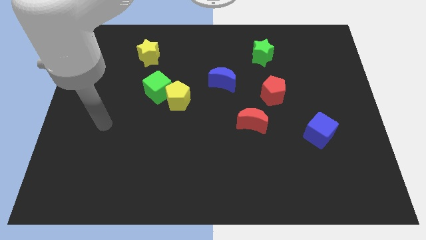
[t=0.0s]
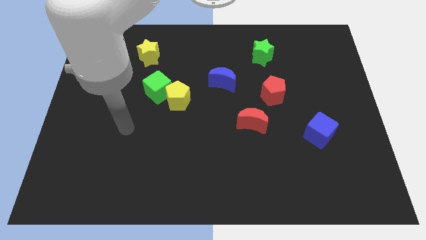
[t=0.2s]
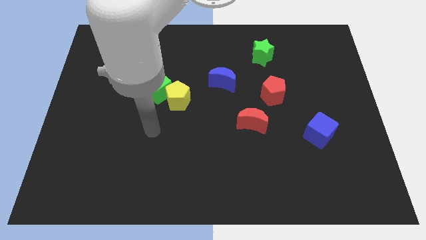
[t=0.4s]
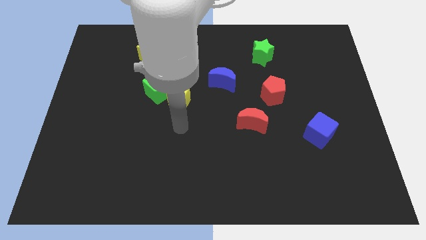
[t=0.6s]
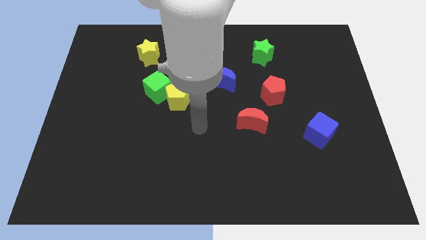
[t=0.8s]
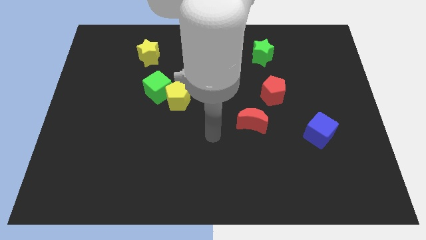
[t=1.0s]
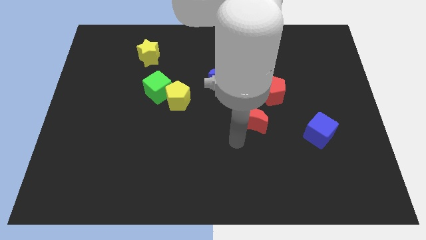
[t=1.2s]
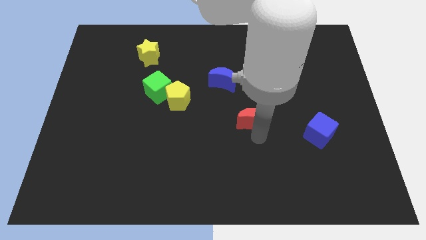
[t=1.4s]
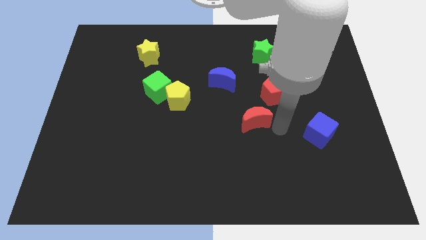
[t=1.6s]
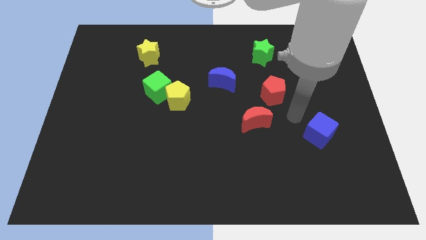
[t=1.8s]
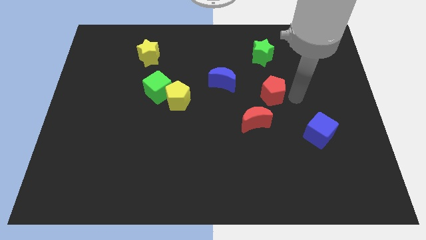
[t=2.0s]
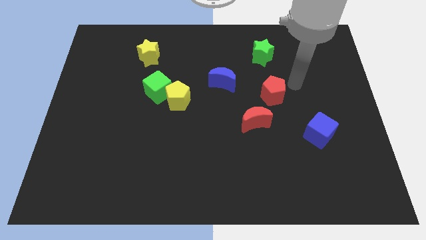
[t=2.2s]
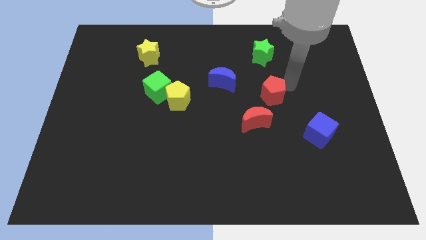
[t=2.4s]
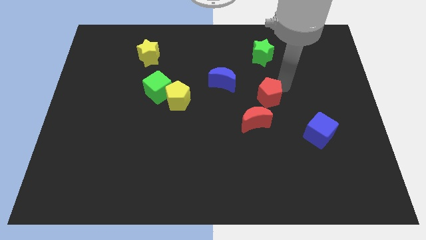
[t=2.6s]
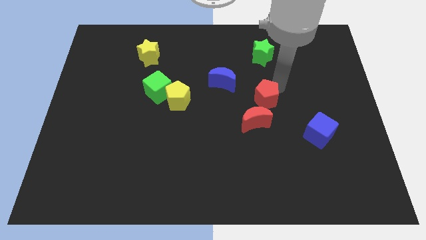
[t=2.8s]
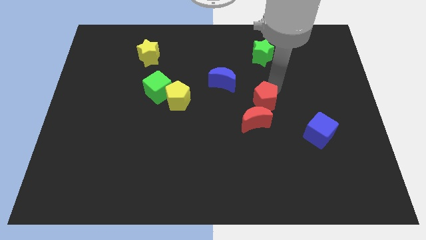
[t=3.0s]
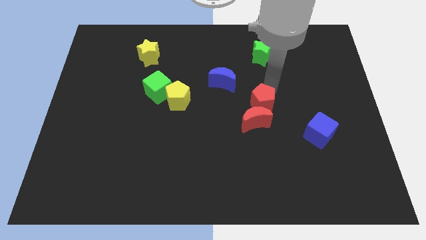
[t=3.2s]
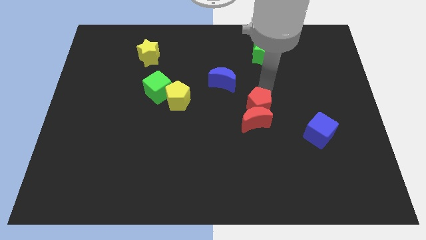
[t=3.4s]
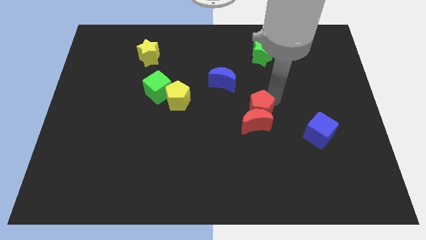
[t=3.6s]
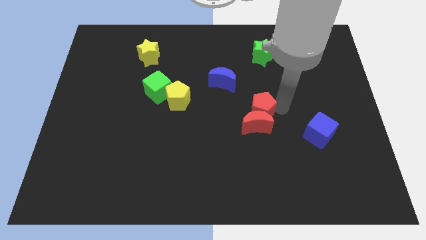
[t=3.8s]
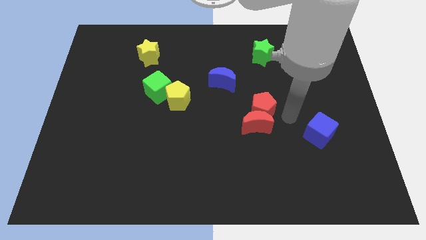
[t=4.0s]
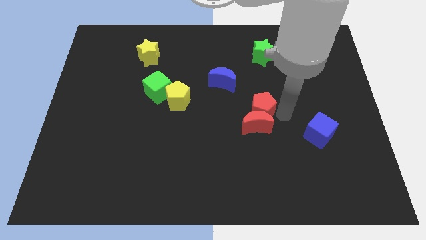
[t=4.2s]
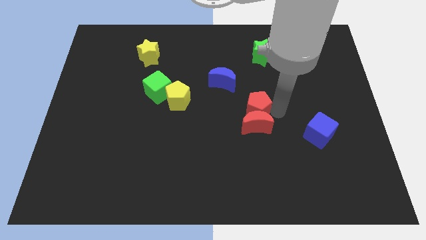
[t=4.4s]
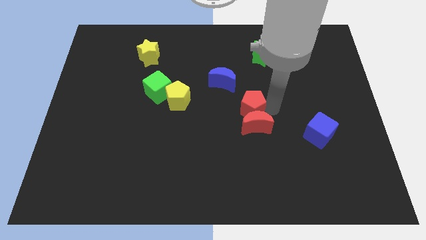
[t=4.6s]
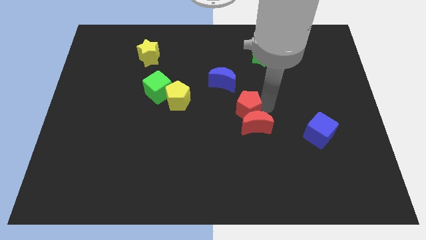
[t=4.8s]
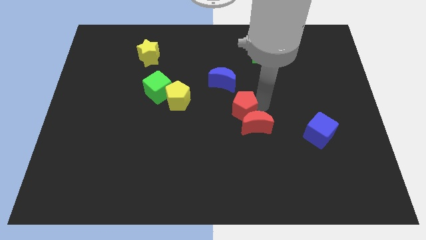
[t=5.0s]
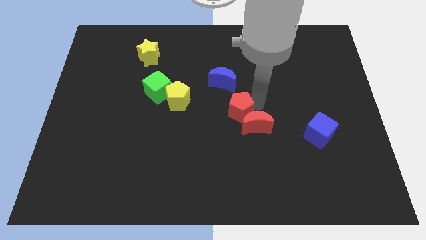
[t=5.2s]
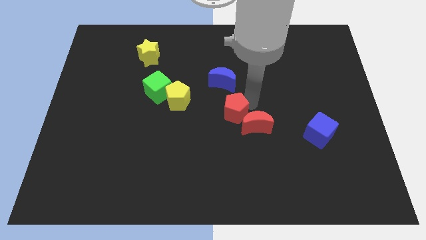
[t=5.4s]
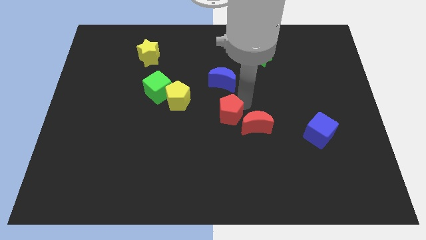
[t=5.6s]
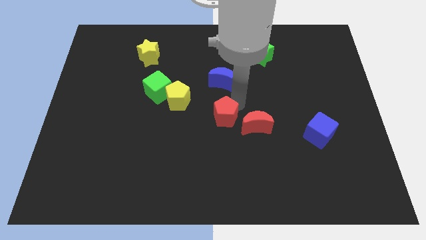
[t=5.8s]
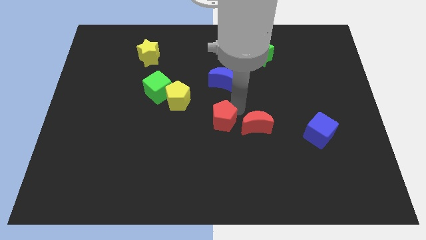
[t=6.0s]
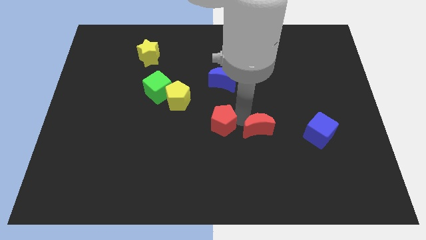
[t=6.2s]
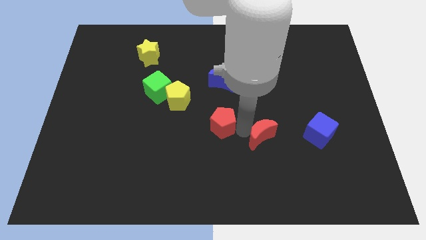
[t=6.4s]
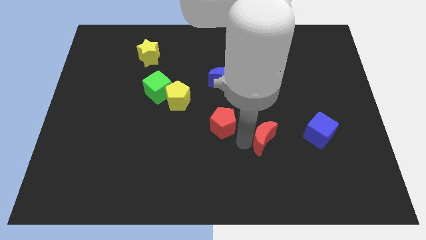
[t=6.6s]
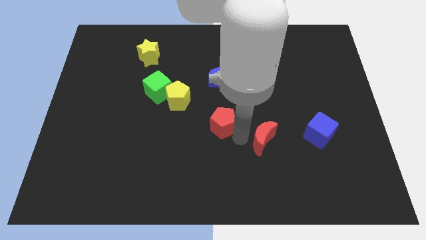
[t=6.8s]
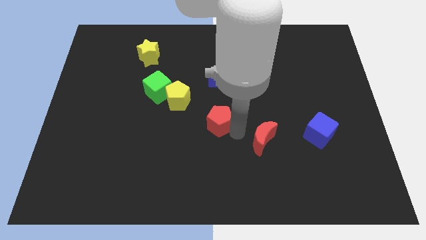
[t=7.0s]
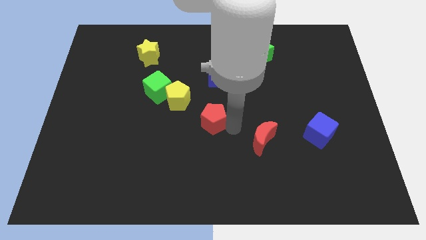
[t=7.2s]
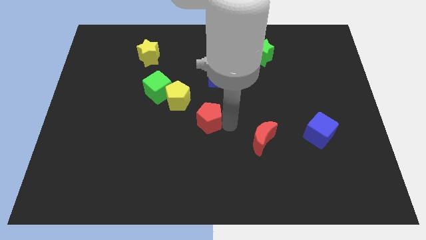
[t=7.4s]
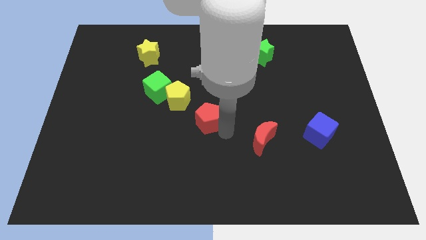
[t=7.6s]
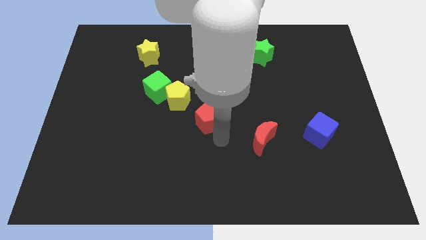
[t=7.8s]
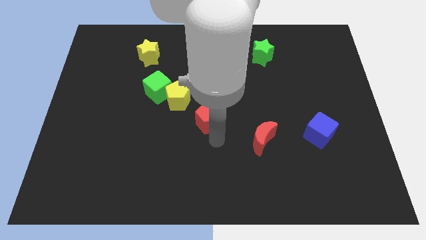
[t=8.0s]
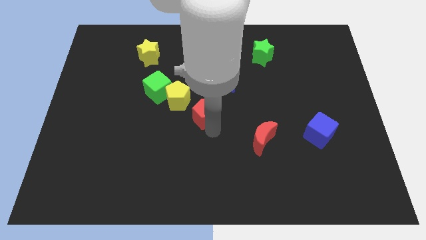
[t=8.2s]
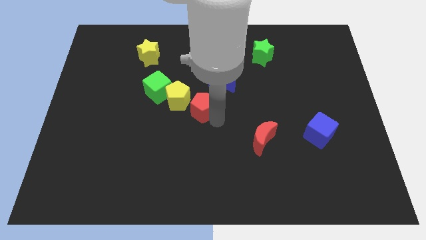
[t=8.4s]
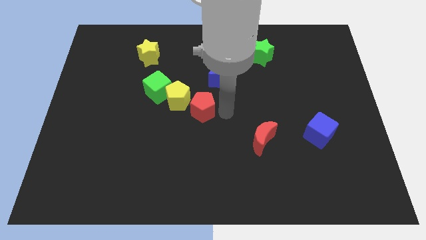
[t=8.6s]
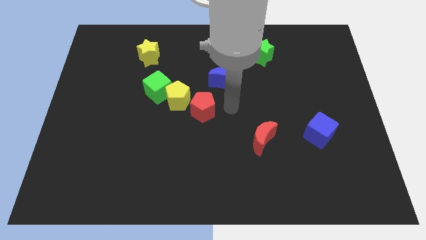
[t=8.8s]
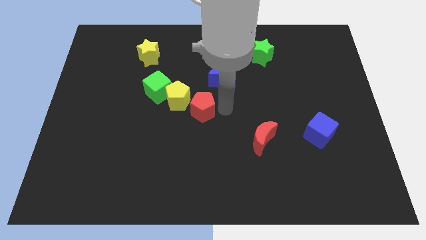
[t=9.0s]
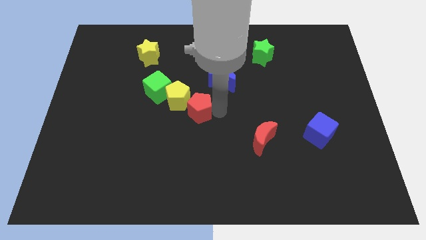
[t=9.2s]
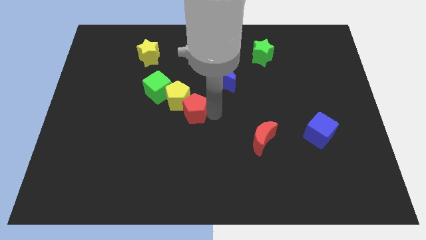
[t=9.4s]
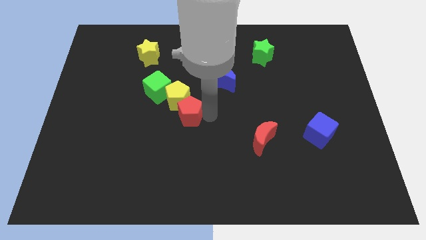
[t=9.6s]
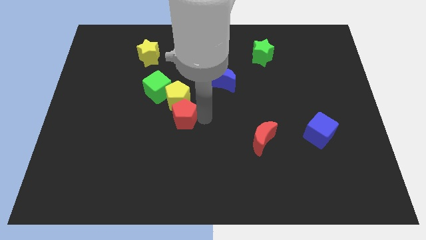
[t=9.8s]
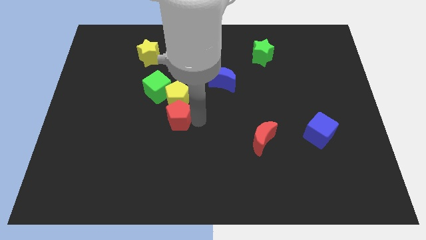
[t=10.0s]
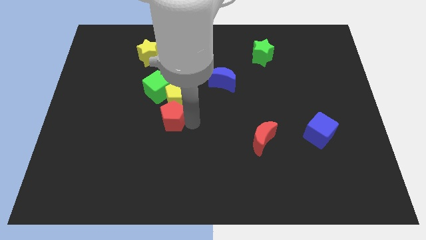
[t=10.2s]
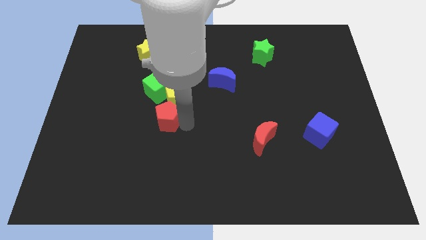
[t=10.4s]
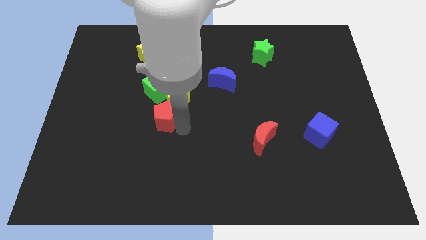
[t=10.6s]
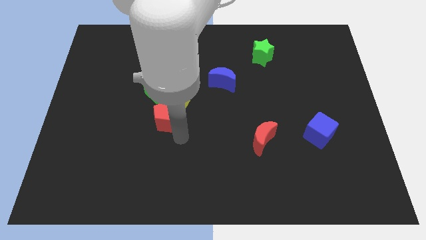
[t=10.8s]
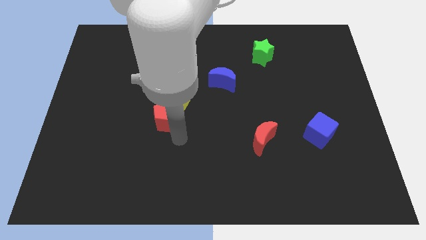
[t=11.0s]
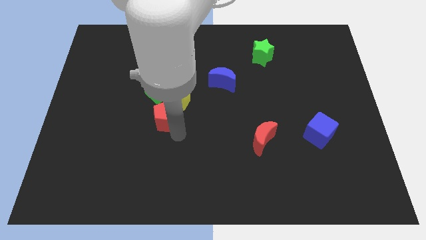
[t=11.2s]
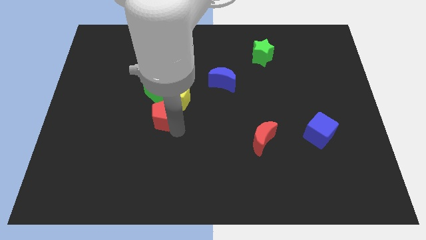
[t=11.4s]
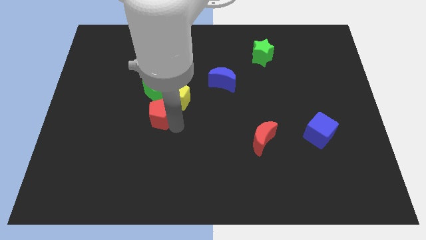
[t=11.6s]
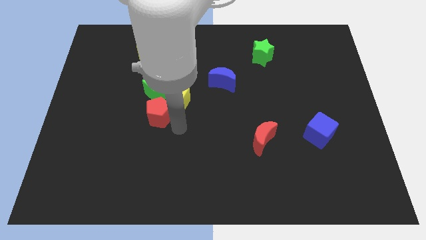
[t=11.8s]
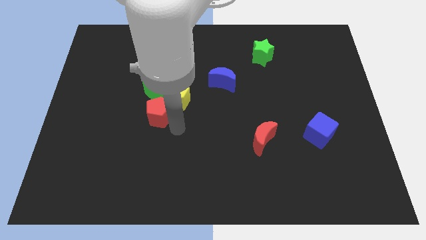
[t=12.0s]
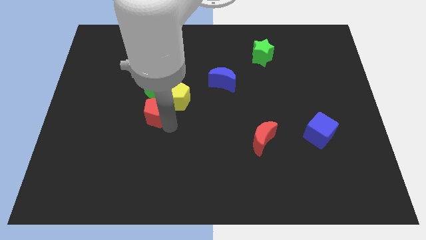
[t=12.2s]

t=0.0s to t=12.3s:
push the red pentagon to the left of the yellow pentagon

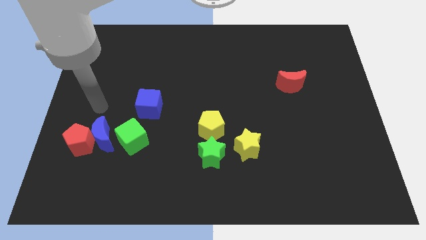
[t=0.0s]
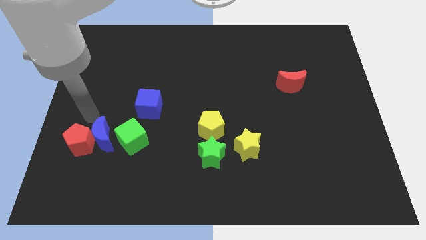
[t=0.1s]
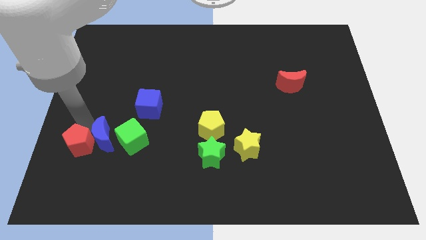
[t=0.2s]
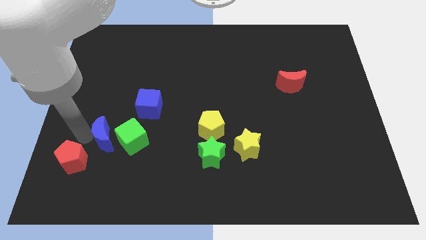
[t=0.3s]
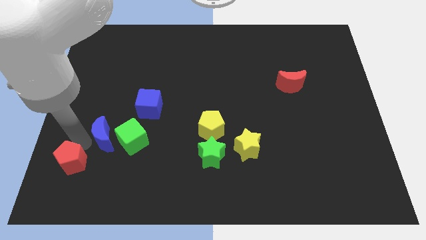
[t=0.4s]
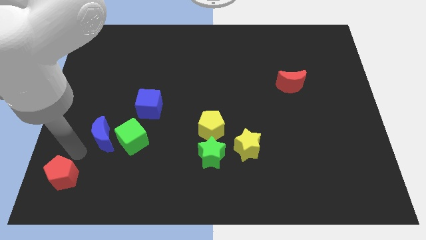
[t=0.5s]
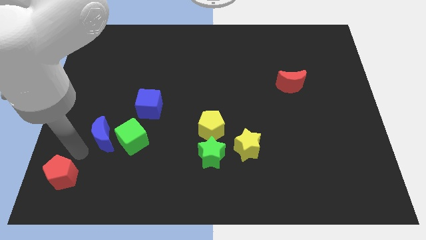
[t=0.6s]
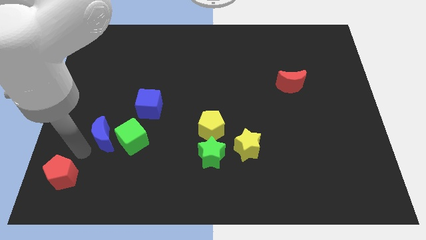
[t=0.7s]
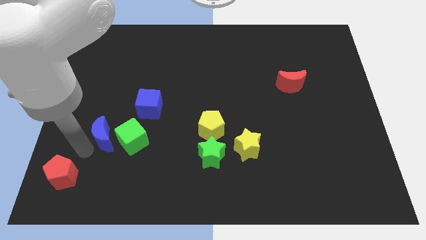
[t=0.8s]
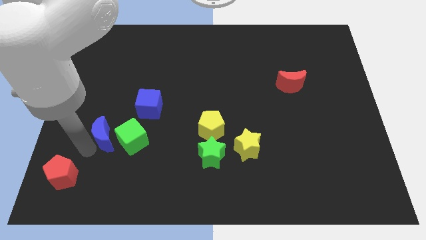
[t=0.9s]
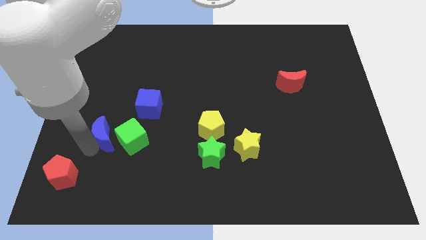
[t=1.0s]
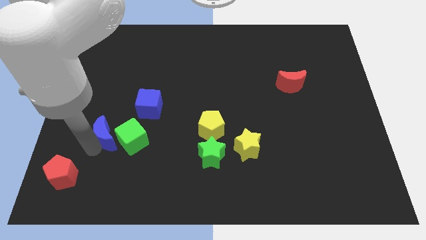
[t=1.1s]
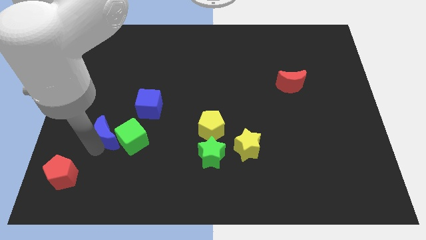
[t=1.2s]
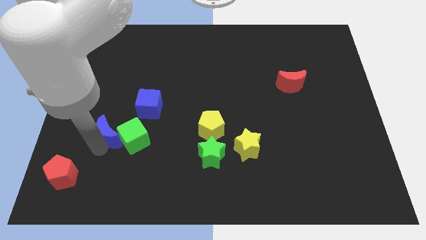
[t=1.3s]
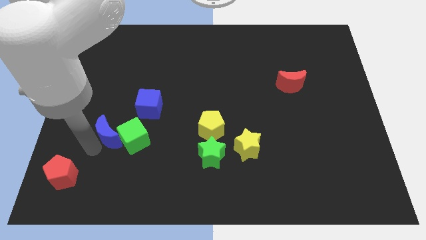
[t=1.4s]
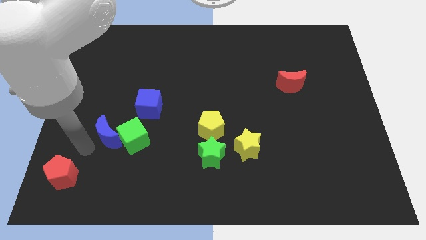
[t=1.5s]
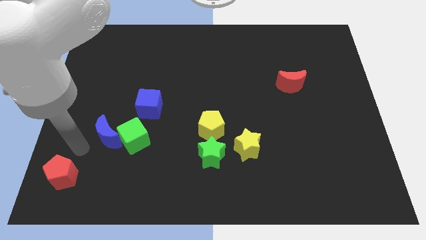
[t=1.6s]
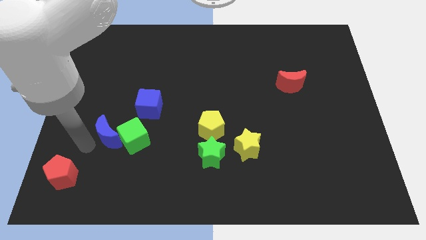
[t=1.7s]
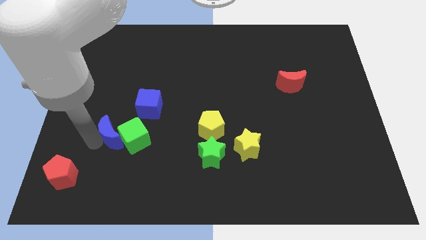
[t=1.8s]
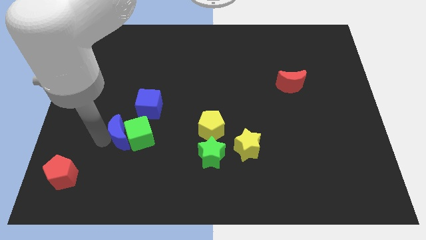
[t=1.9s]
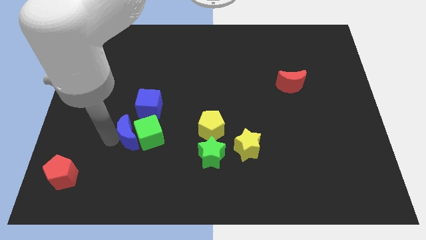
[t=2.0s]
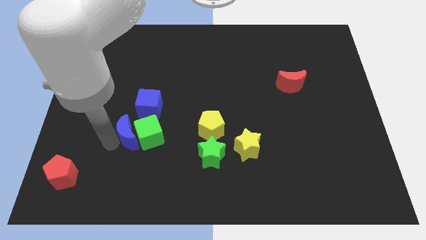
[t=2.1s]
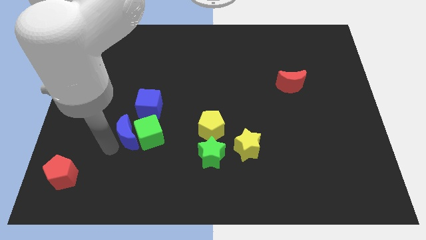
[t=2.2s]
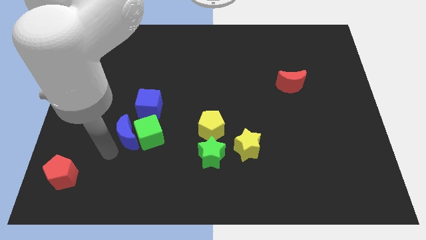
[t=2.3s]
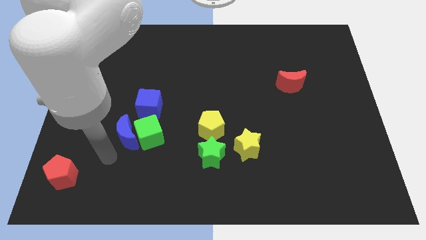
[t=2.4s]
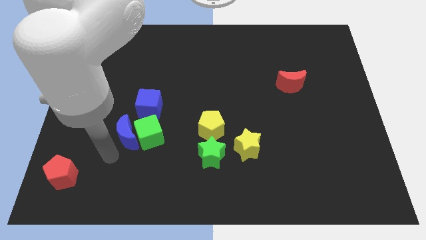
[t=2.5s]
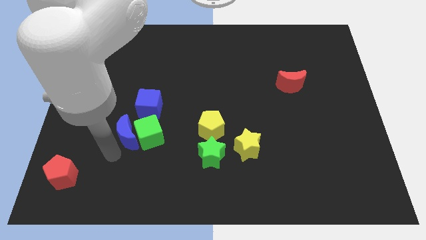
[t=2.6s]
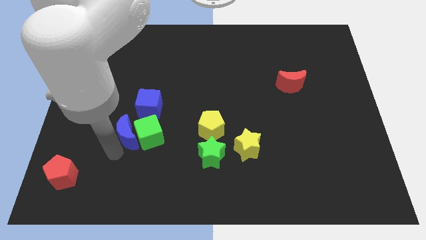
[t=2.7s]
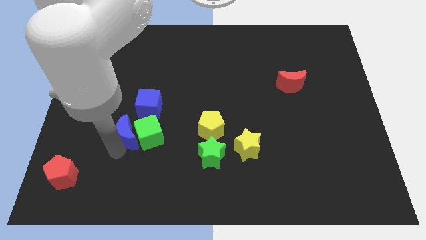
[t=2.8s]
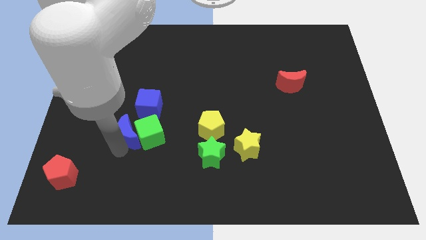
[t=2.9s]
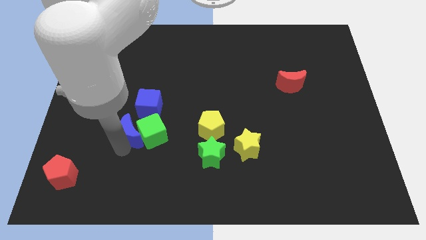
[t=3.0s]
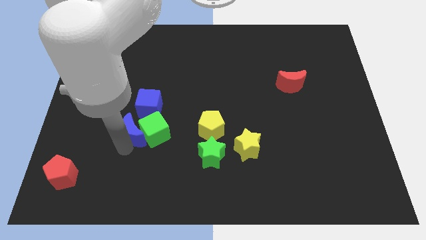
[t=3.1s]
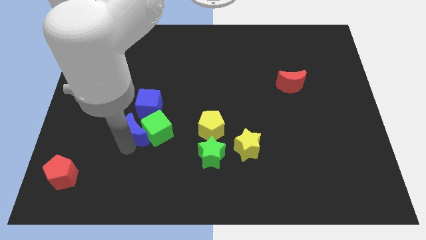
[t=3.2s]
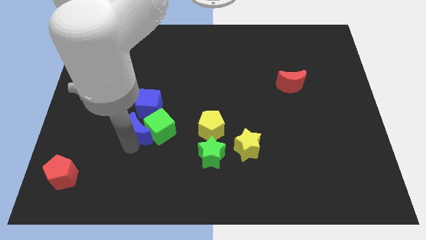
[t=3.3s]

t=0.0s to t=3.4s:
move the blue moon to the left of the yellow pentagon
